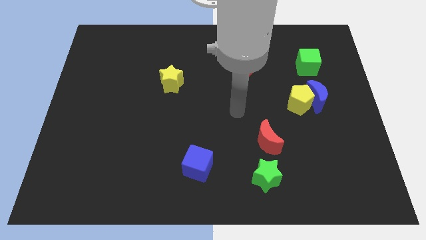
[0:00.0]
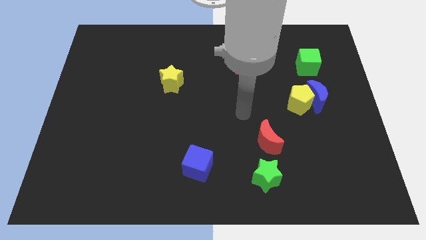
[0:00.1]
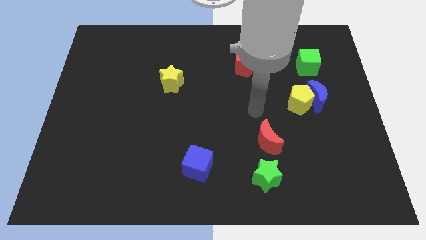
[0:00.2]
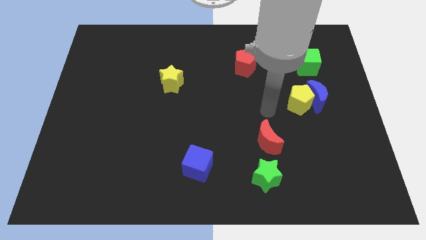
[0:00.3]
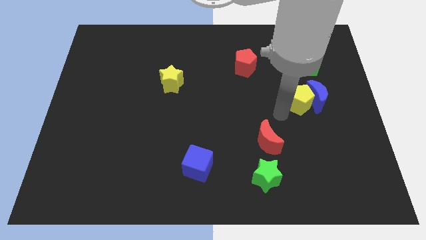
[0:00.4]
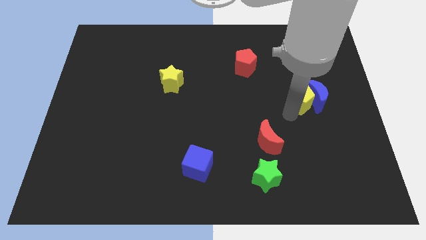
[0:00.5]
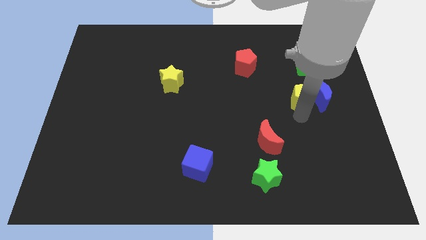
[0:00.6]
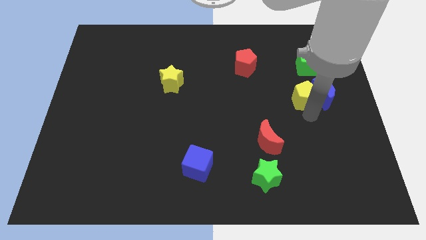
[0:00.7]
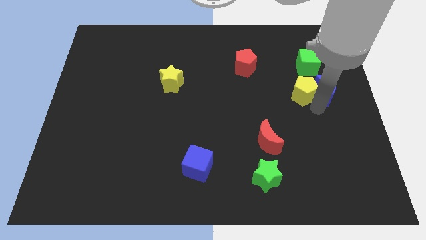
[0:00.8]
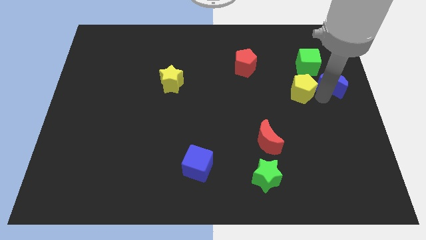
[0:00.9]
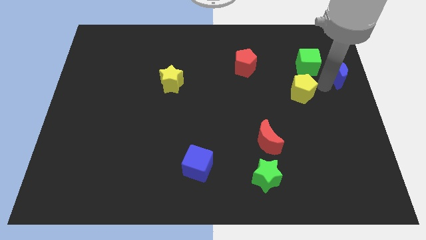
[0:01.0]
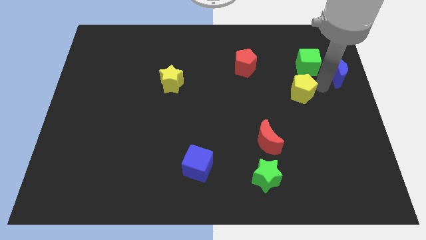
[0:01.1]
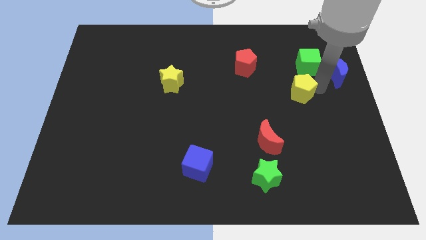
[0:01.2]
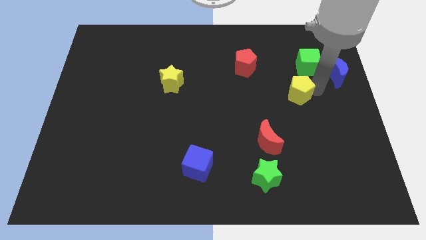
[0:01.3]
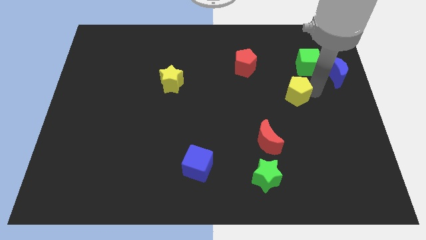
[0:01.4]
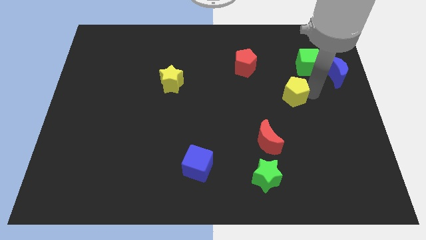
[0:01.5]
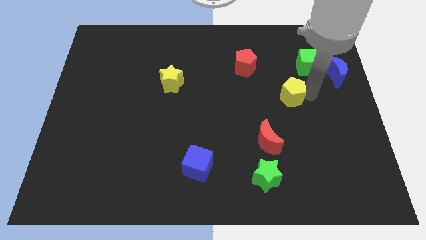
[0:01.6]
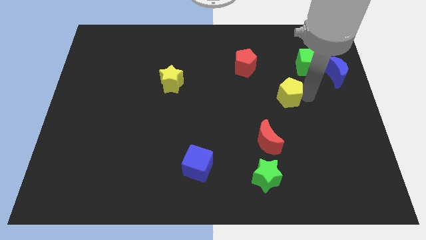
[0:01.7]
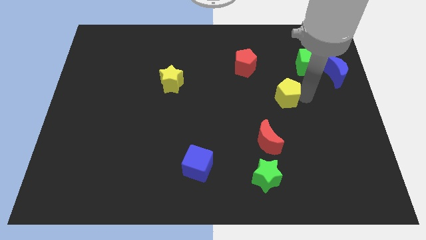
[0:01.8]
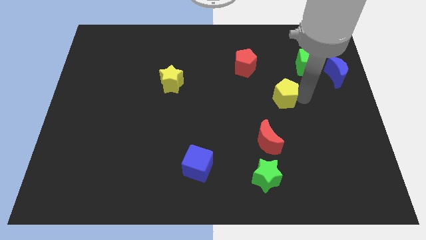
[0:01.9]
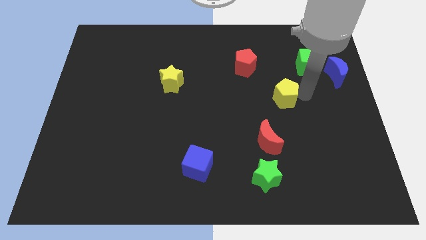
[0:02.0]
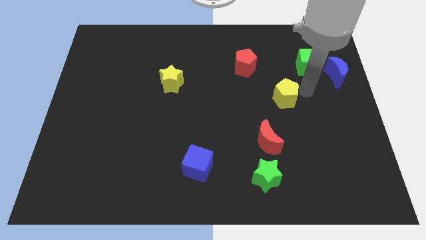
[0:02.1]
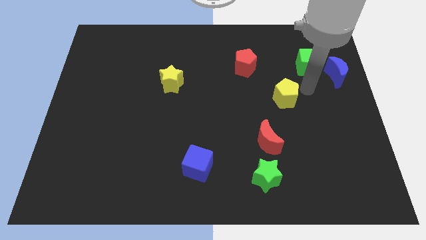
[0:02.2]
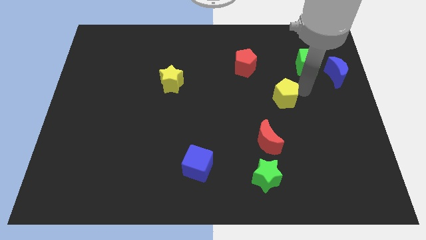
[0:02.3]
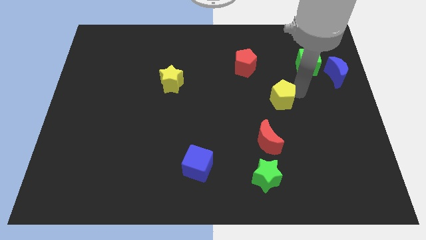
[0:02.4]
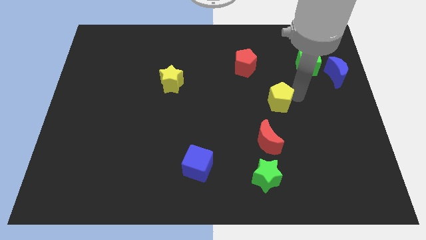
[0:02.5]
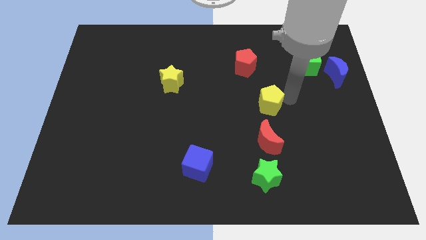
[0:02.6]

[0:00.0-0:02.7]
move the yellow pentagon somewhat left

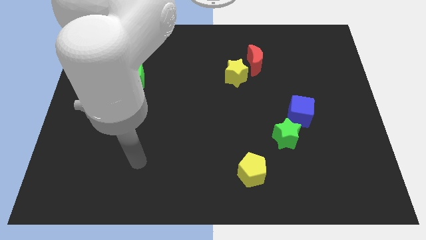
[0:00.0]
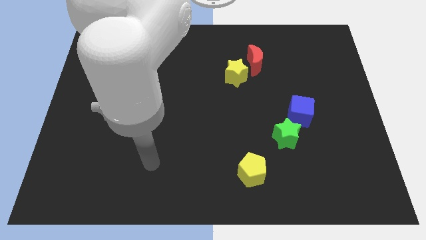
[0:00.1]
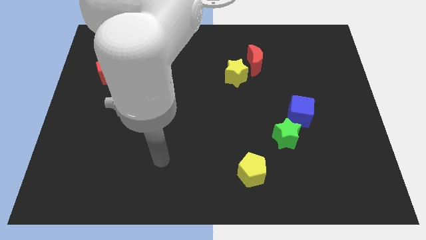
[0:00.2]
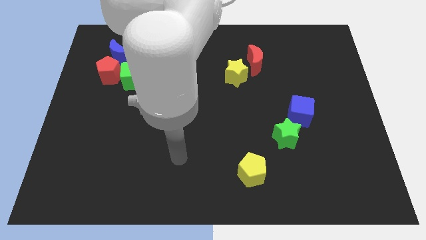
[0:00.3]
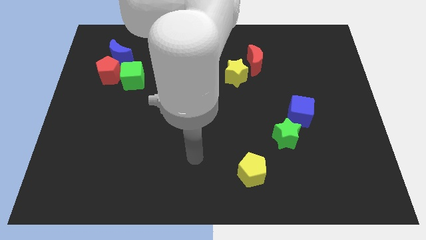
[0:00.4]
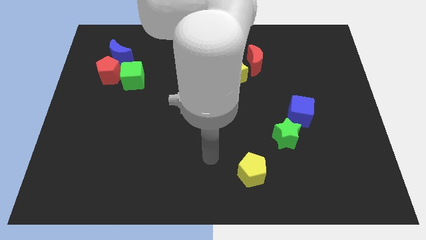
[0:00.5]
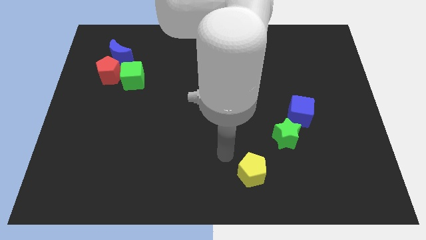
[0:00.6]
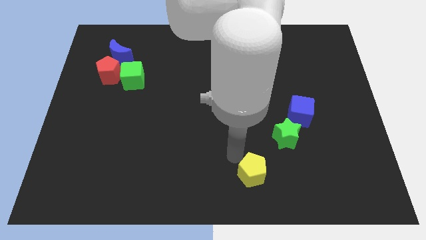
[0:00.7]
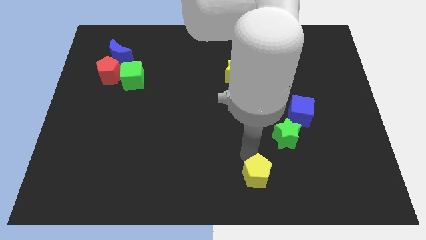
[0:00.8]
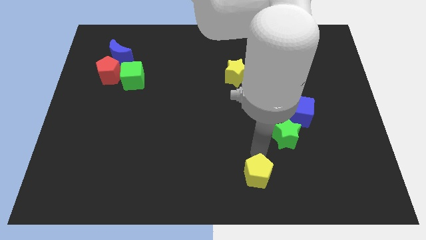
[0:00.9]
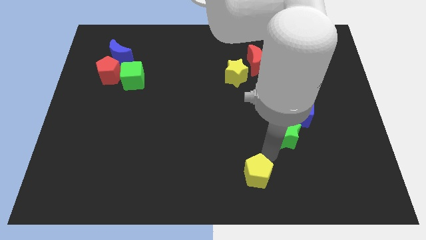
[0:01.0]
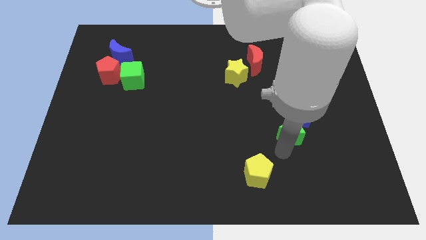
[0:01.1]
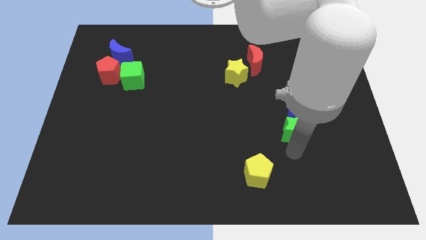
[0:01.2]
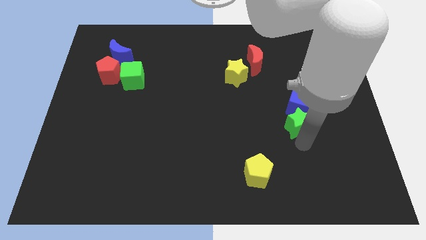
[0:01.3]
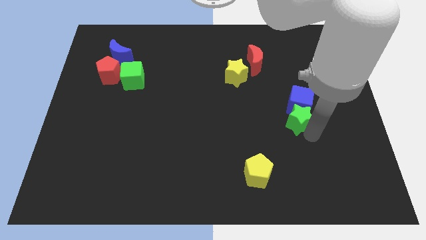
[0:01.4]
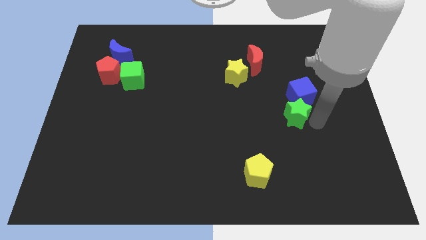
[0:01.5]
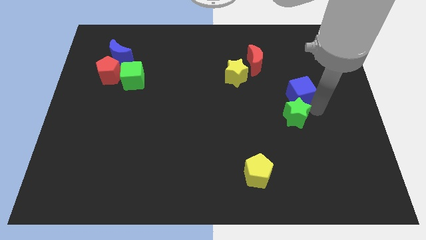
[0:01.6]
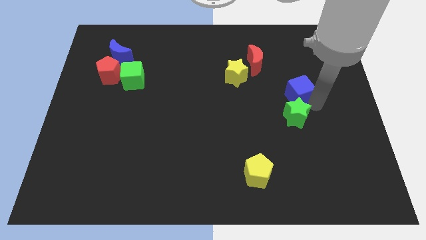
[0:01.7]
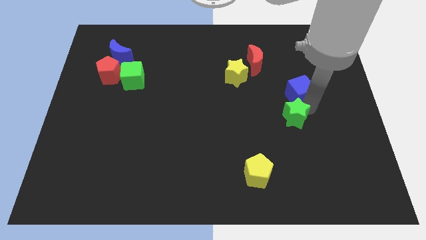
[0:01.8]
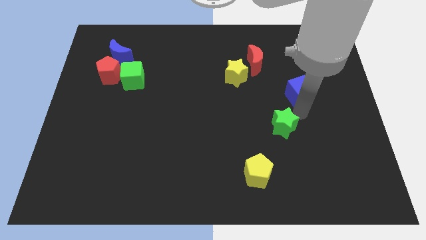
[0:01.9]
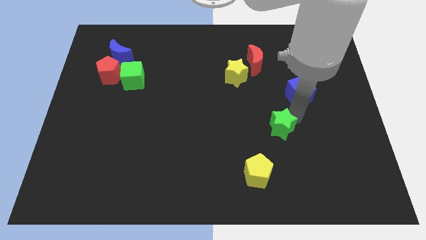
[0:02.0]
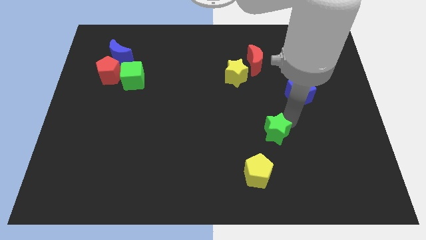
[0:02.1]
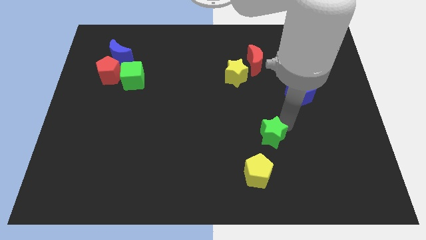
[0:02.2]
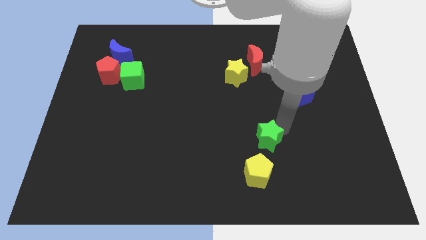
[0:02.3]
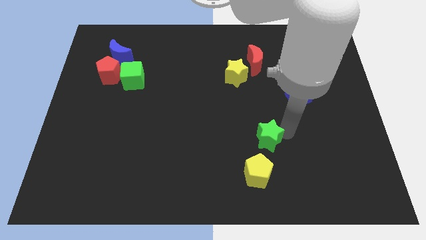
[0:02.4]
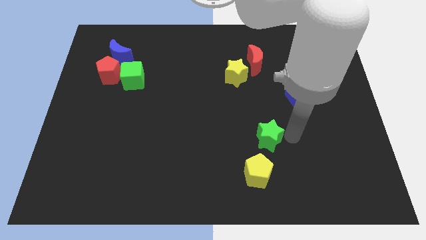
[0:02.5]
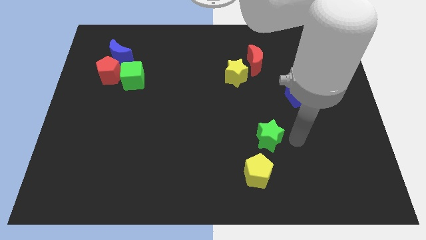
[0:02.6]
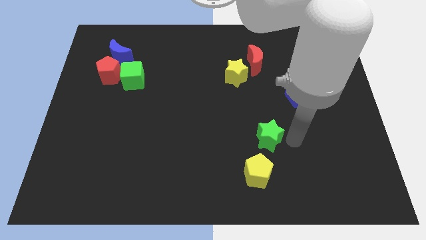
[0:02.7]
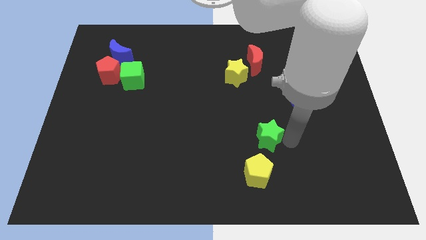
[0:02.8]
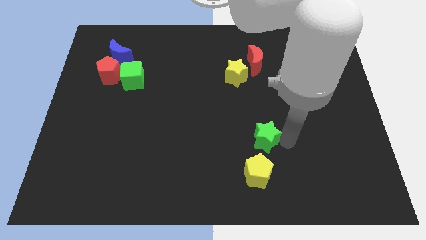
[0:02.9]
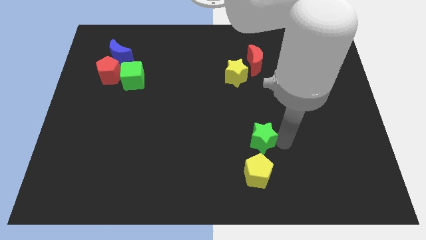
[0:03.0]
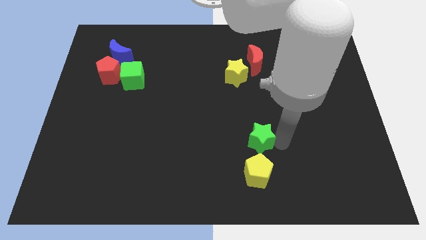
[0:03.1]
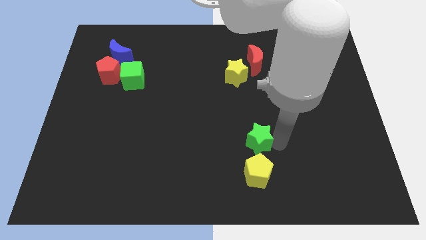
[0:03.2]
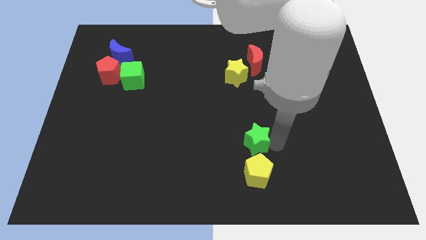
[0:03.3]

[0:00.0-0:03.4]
push the green star to the left a little bit

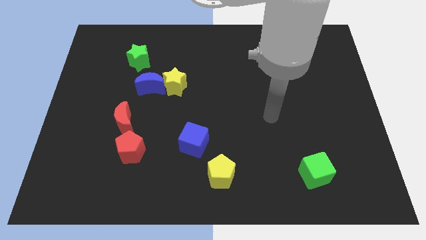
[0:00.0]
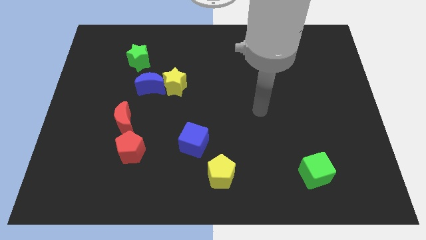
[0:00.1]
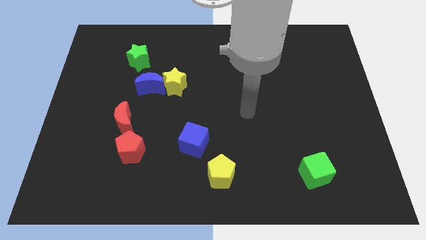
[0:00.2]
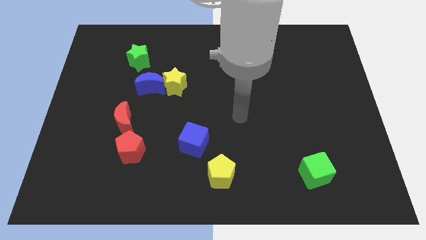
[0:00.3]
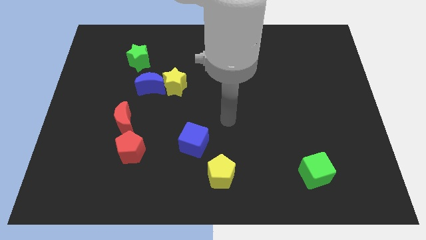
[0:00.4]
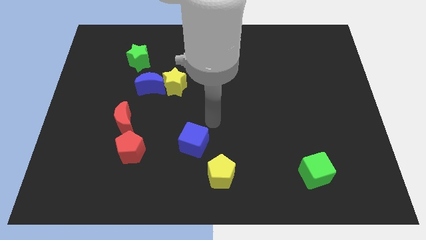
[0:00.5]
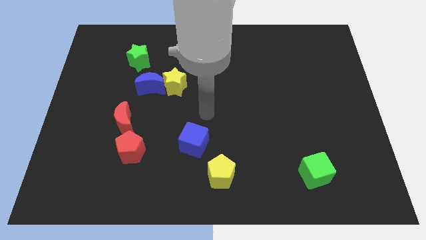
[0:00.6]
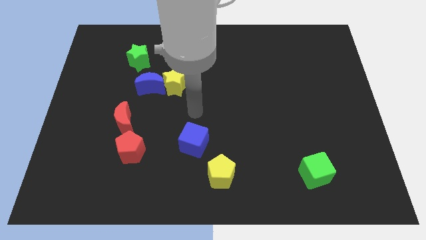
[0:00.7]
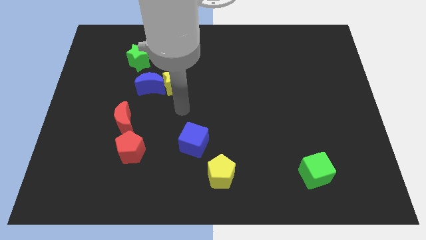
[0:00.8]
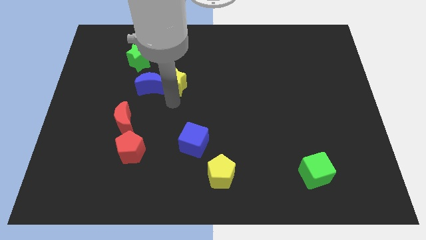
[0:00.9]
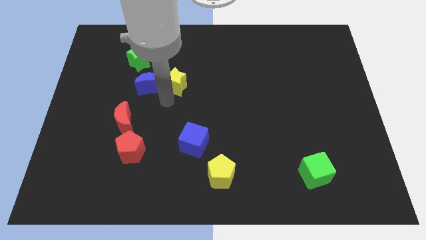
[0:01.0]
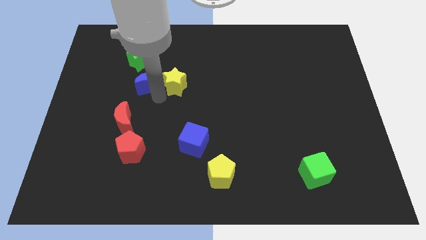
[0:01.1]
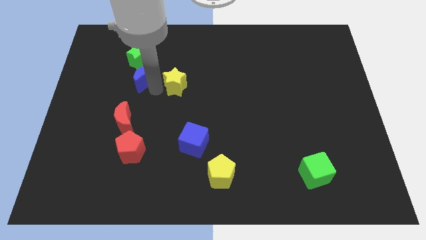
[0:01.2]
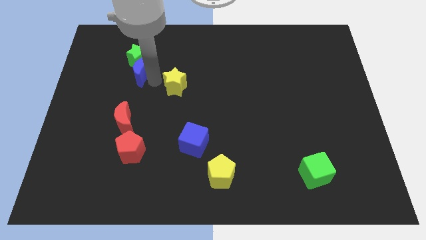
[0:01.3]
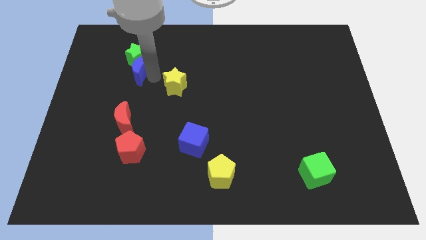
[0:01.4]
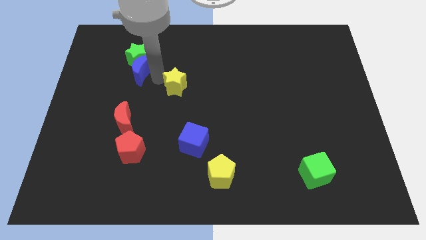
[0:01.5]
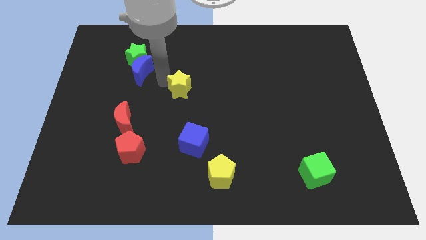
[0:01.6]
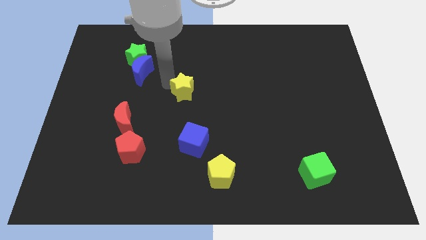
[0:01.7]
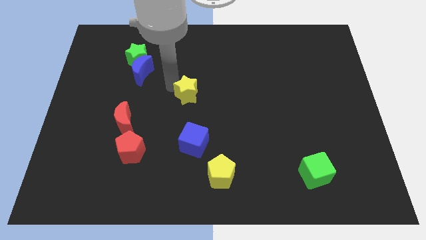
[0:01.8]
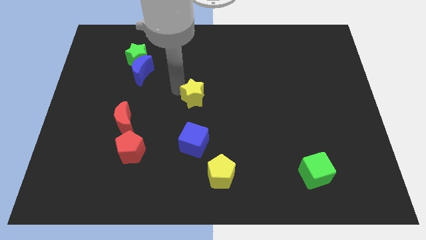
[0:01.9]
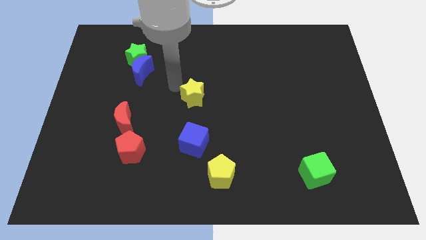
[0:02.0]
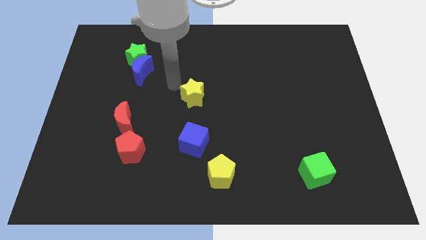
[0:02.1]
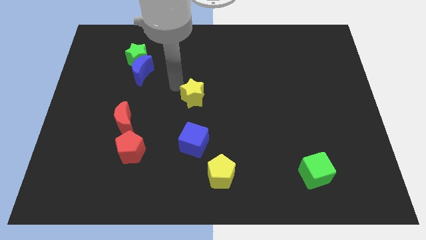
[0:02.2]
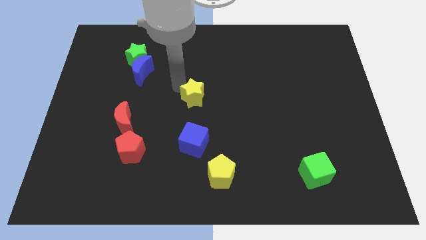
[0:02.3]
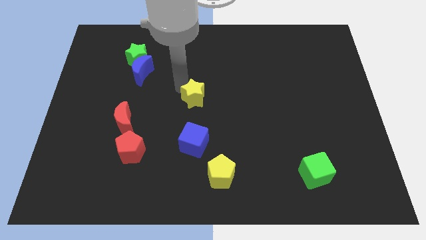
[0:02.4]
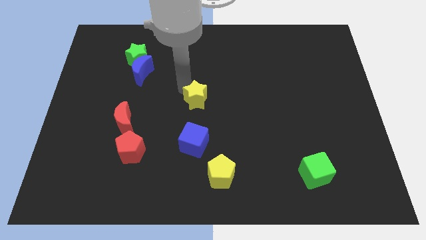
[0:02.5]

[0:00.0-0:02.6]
slightly move the yellow star downwards and right
